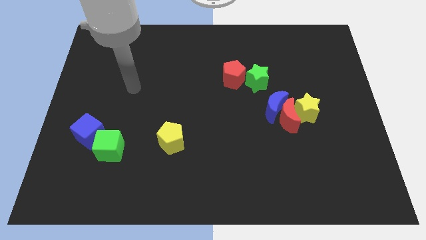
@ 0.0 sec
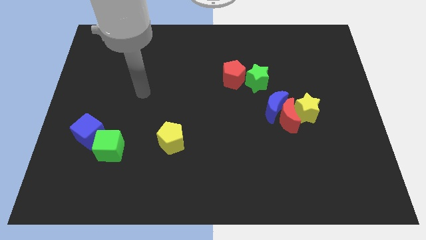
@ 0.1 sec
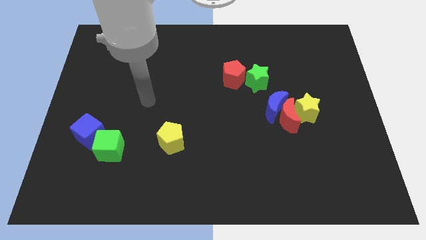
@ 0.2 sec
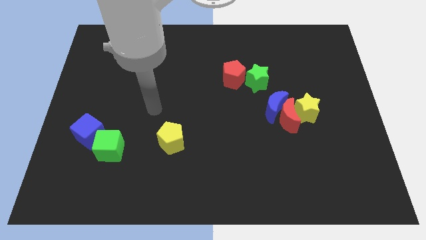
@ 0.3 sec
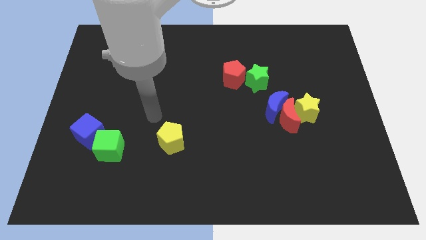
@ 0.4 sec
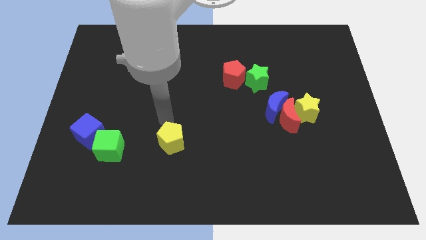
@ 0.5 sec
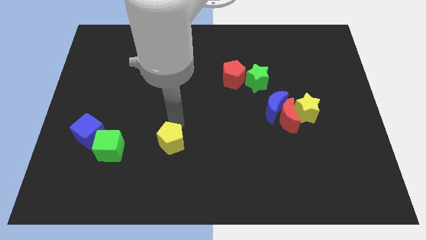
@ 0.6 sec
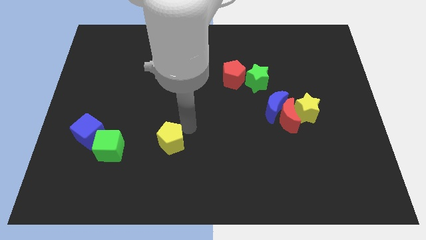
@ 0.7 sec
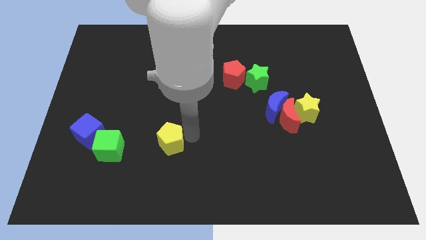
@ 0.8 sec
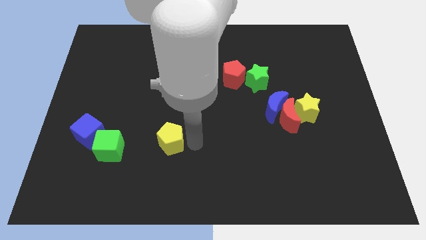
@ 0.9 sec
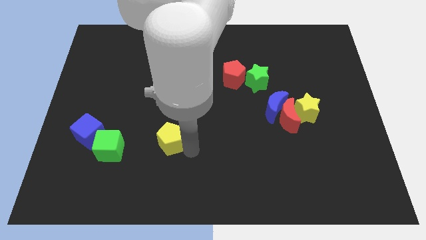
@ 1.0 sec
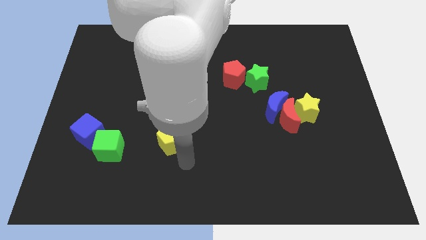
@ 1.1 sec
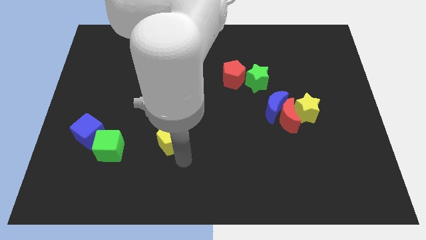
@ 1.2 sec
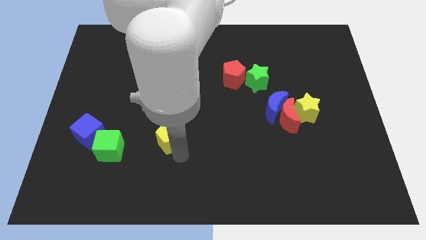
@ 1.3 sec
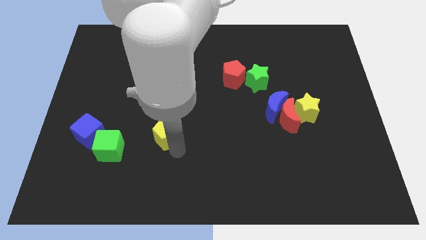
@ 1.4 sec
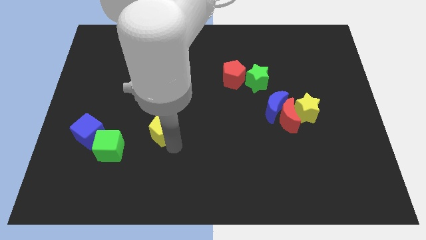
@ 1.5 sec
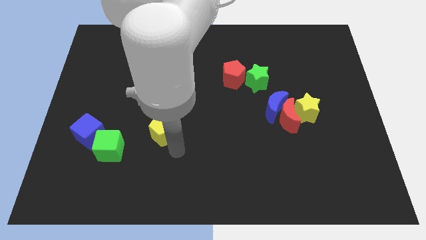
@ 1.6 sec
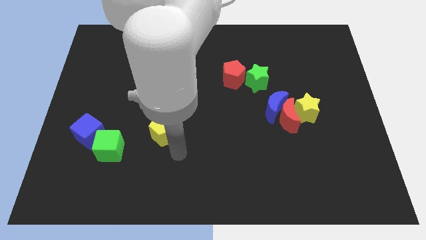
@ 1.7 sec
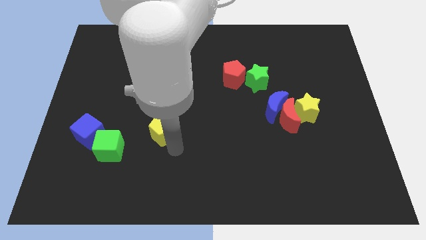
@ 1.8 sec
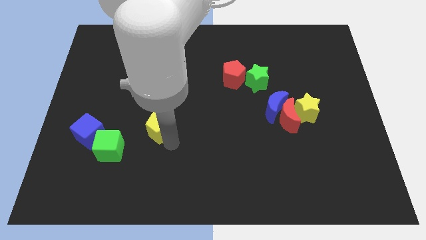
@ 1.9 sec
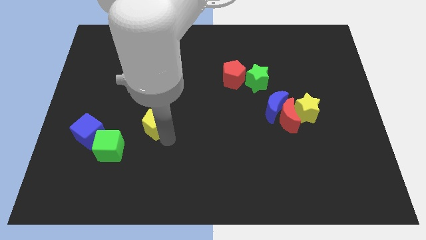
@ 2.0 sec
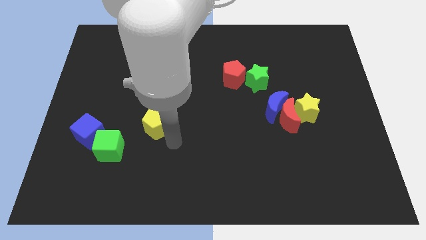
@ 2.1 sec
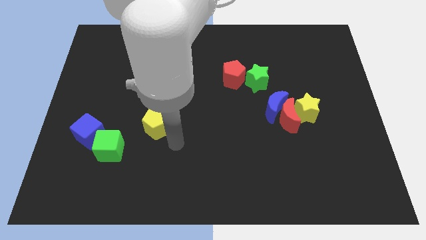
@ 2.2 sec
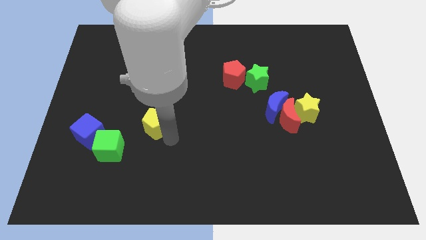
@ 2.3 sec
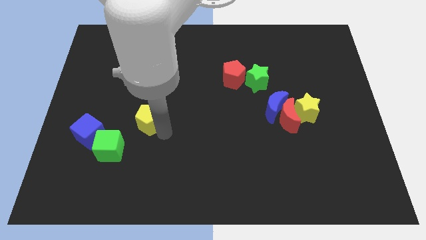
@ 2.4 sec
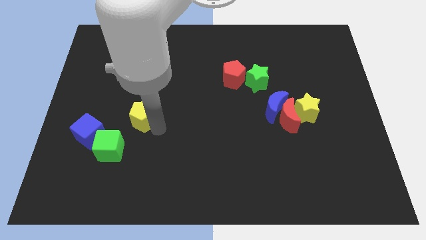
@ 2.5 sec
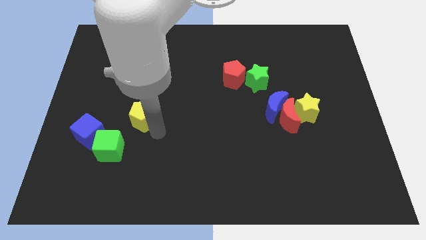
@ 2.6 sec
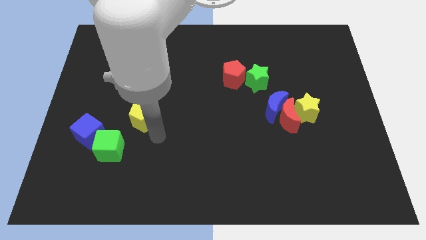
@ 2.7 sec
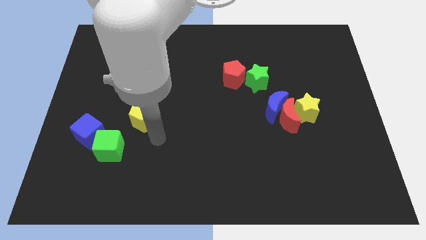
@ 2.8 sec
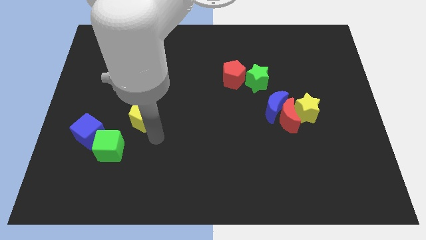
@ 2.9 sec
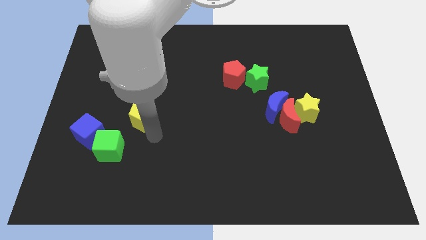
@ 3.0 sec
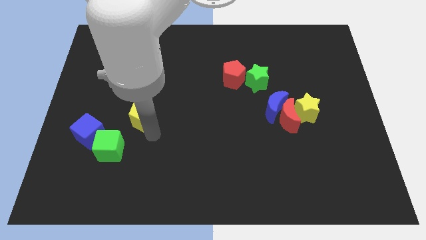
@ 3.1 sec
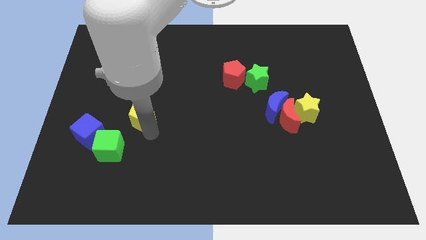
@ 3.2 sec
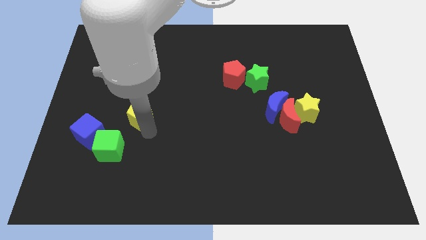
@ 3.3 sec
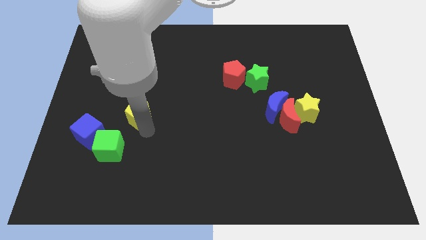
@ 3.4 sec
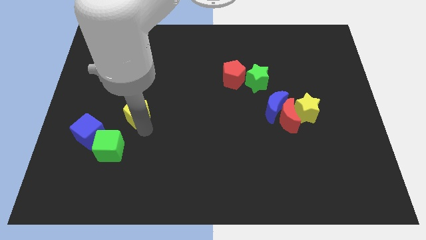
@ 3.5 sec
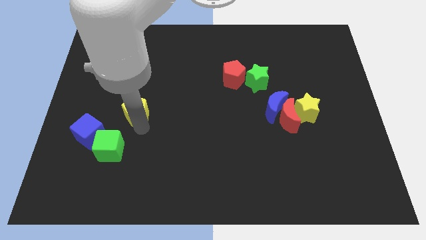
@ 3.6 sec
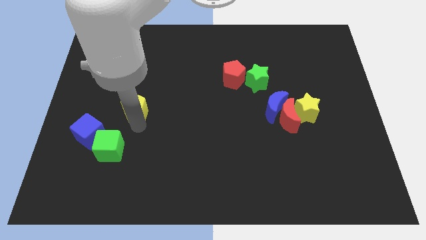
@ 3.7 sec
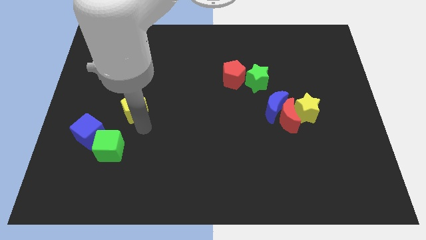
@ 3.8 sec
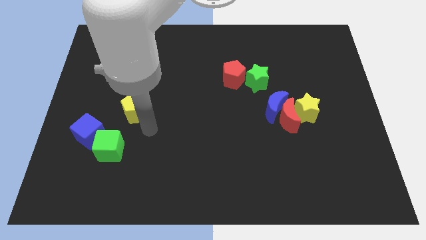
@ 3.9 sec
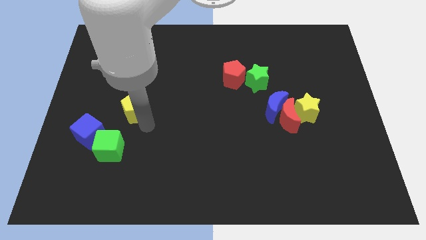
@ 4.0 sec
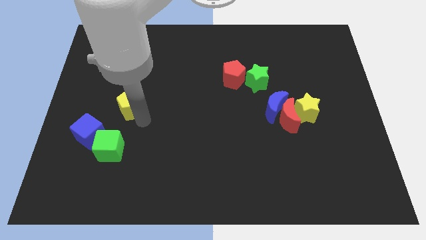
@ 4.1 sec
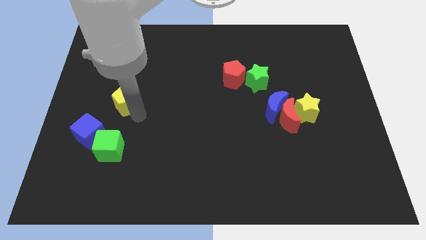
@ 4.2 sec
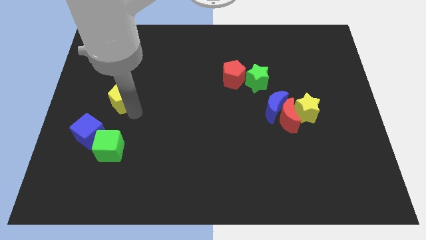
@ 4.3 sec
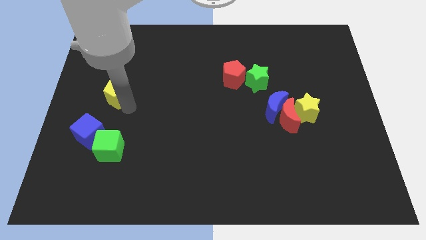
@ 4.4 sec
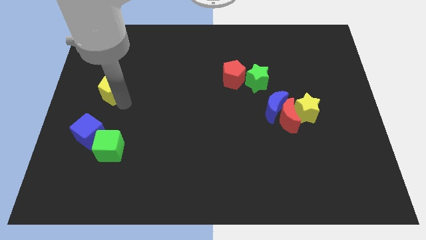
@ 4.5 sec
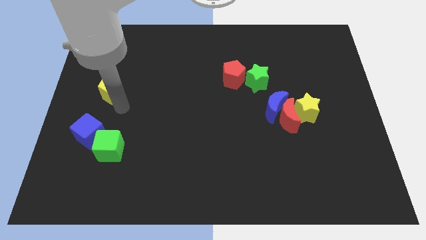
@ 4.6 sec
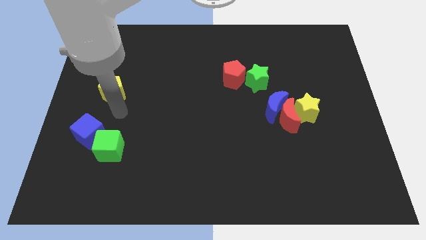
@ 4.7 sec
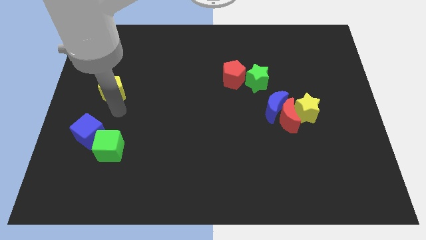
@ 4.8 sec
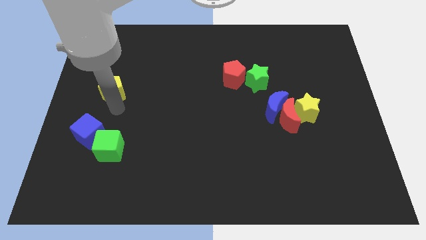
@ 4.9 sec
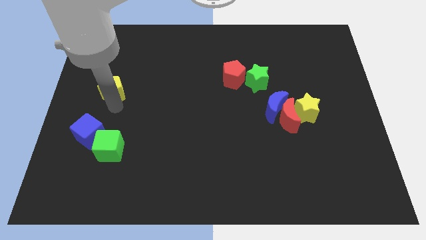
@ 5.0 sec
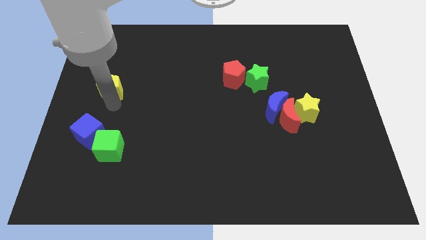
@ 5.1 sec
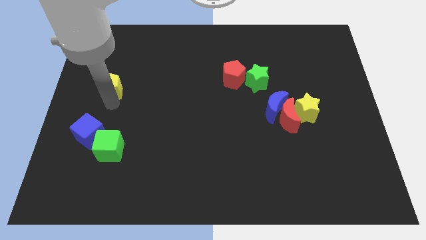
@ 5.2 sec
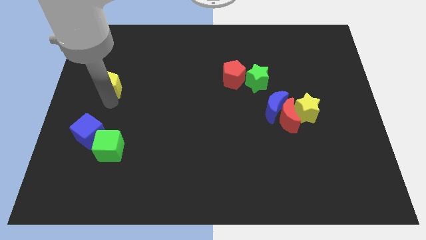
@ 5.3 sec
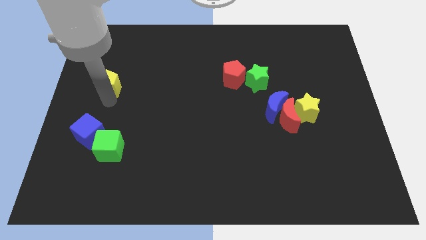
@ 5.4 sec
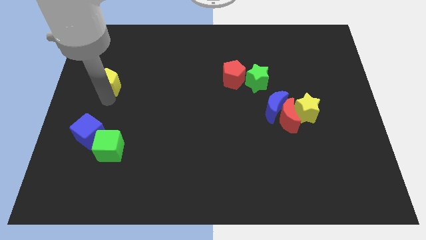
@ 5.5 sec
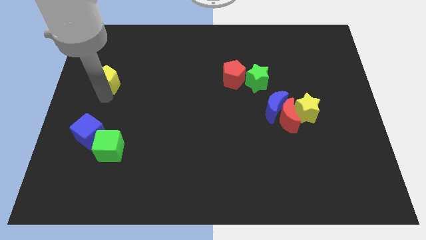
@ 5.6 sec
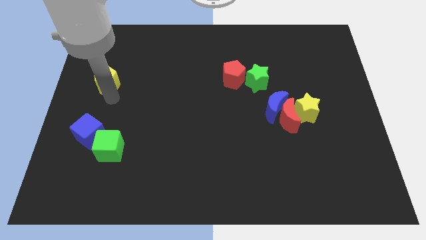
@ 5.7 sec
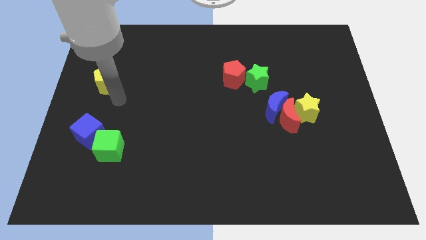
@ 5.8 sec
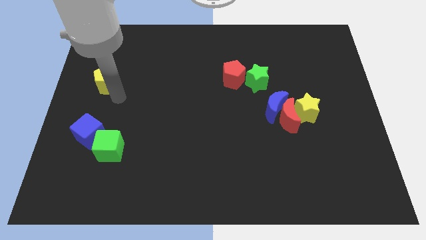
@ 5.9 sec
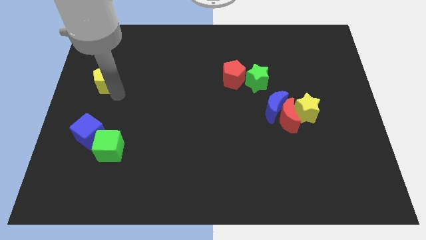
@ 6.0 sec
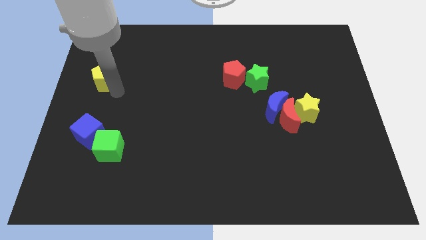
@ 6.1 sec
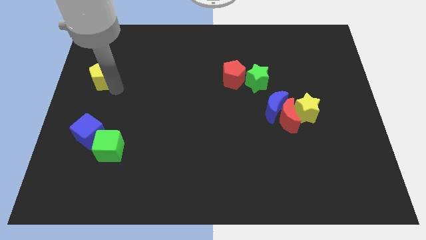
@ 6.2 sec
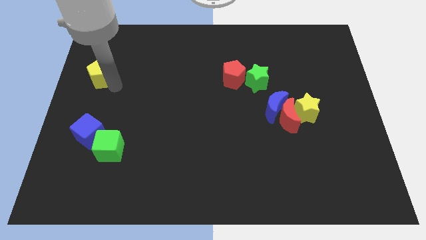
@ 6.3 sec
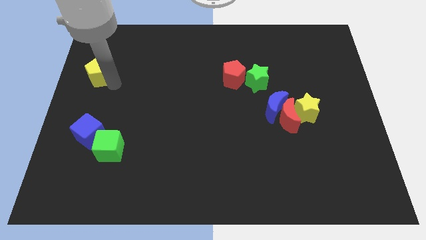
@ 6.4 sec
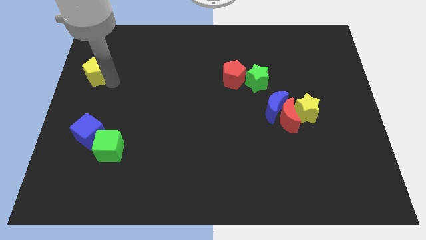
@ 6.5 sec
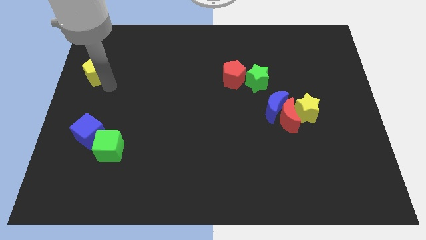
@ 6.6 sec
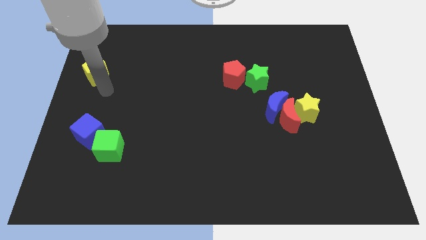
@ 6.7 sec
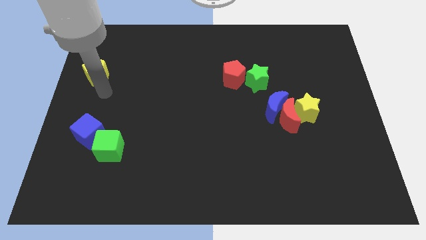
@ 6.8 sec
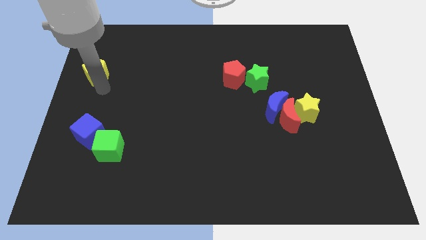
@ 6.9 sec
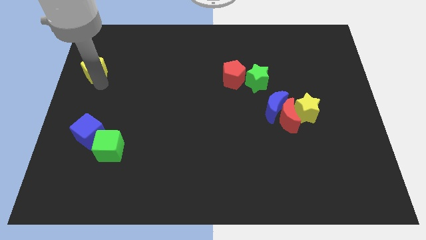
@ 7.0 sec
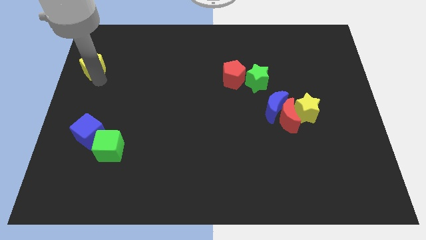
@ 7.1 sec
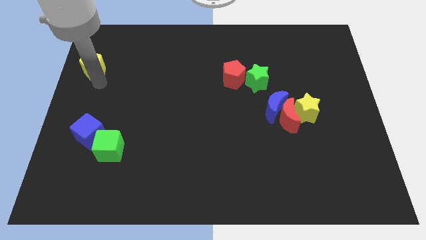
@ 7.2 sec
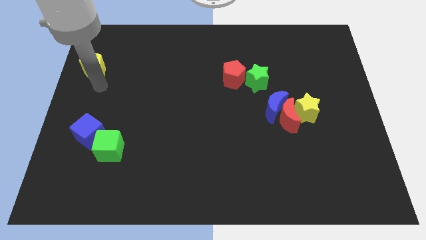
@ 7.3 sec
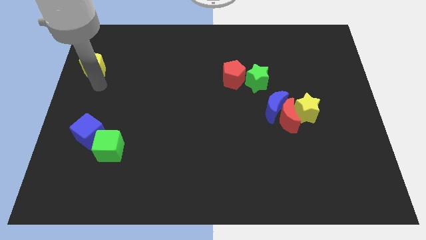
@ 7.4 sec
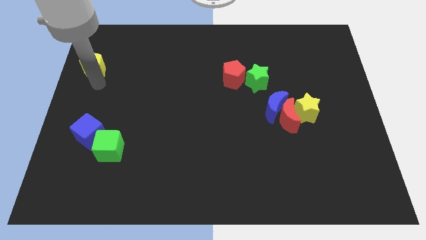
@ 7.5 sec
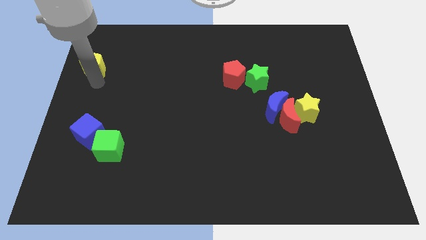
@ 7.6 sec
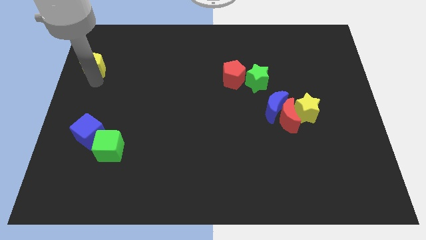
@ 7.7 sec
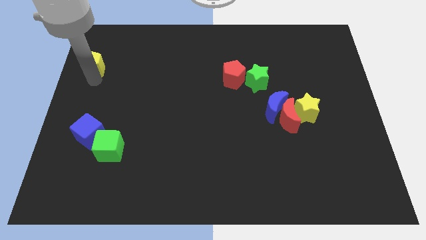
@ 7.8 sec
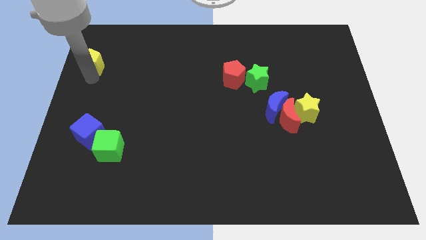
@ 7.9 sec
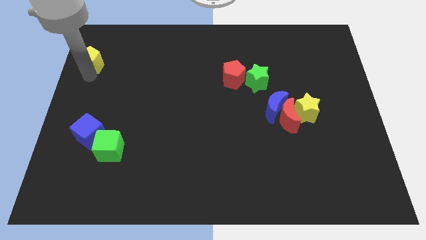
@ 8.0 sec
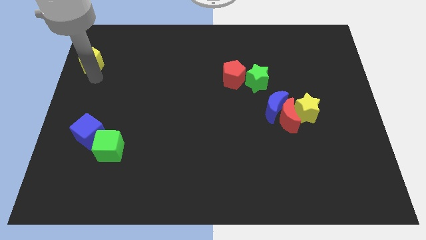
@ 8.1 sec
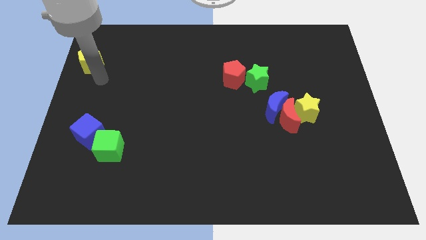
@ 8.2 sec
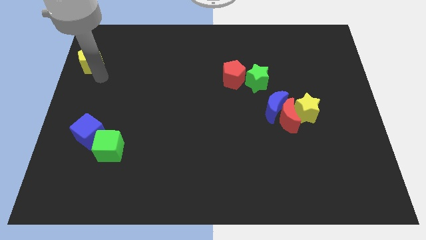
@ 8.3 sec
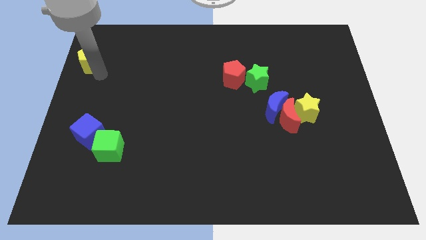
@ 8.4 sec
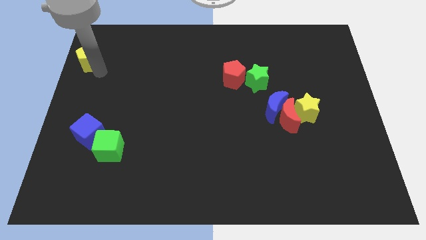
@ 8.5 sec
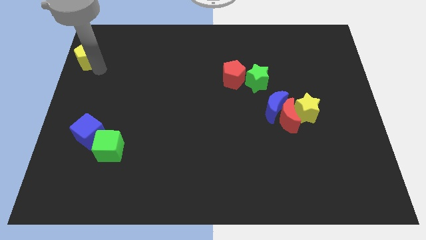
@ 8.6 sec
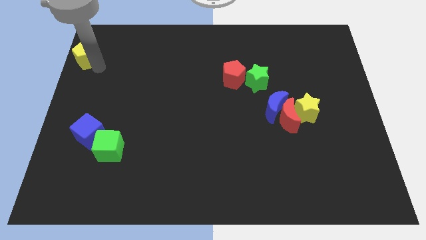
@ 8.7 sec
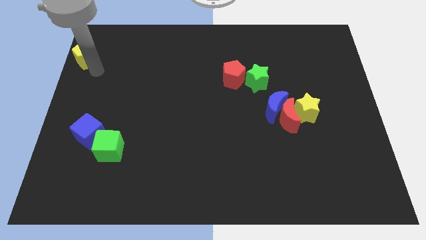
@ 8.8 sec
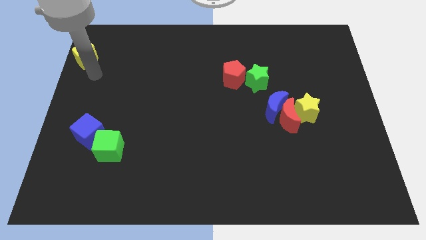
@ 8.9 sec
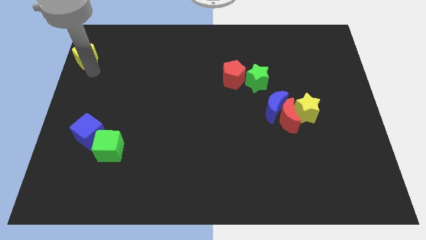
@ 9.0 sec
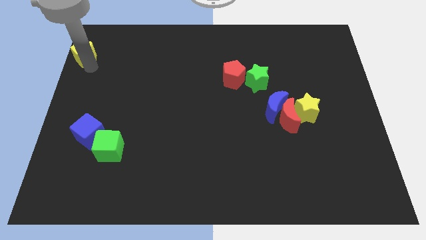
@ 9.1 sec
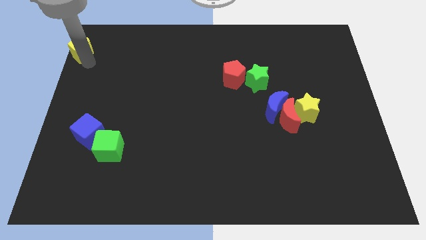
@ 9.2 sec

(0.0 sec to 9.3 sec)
push the yellow pentagon to the top left
